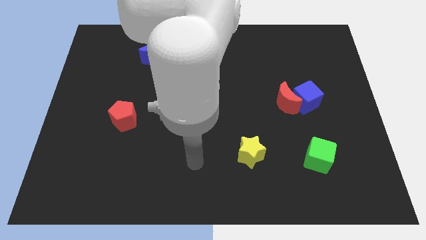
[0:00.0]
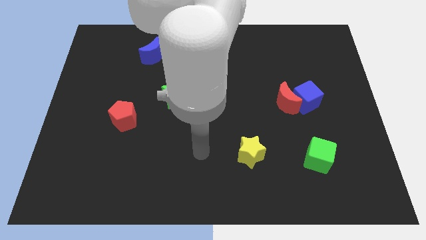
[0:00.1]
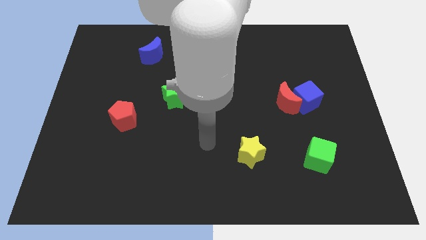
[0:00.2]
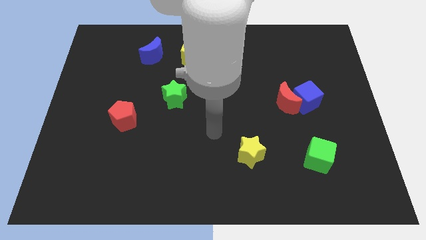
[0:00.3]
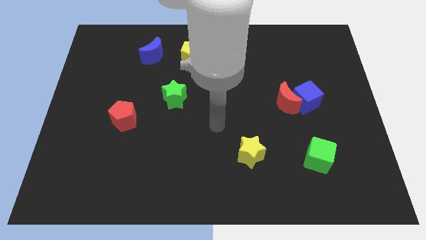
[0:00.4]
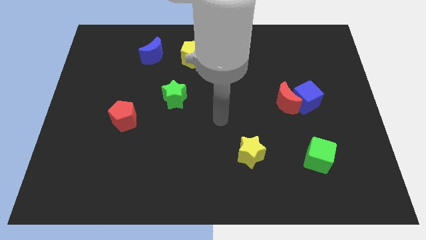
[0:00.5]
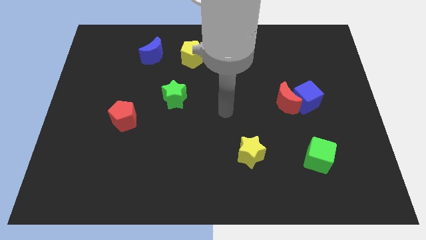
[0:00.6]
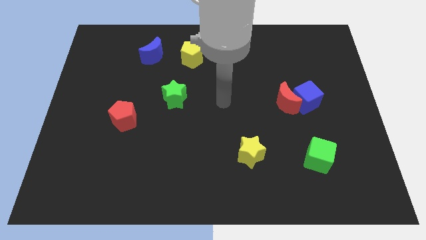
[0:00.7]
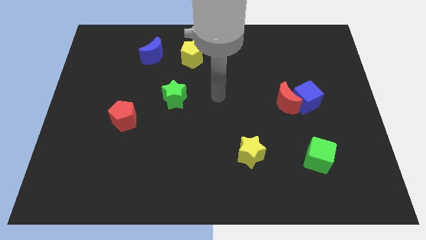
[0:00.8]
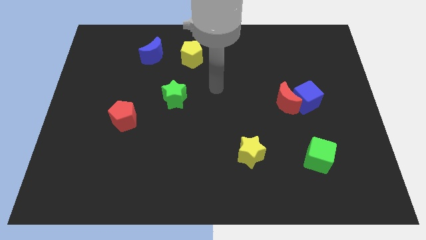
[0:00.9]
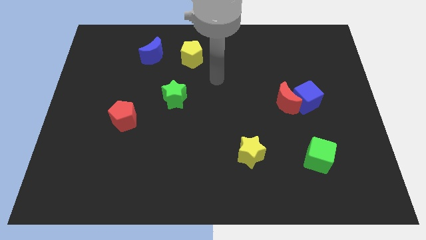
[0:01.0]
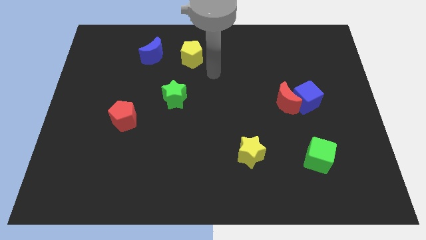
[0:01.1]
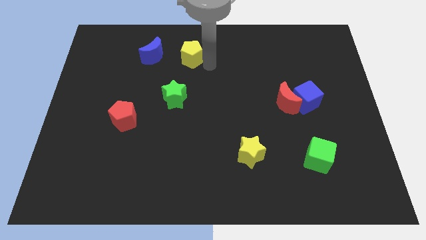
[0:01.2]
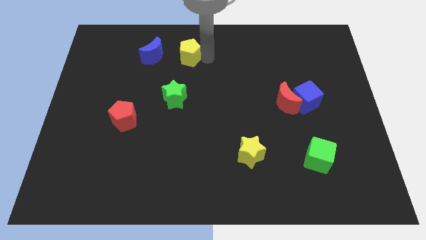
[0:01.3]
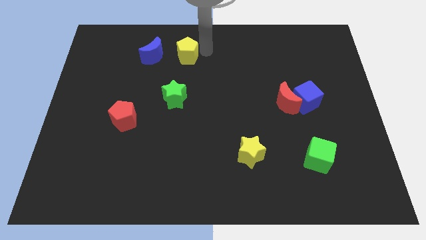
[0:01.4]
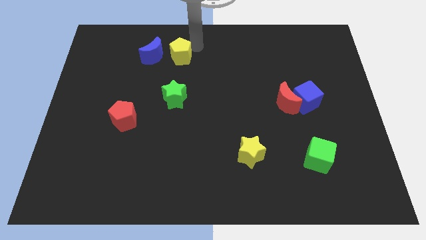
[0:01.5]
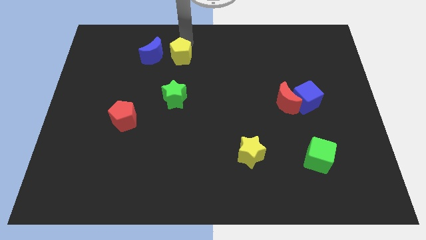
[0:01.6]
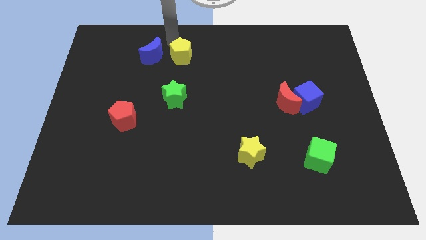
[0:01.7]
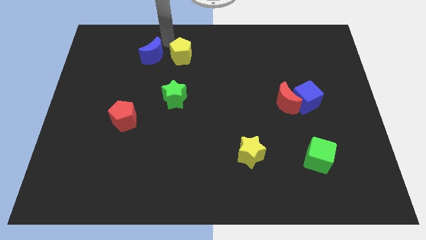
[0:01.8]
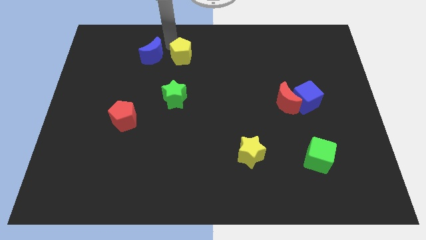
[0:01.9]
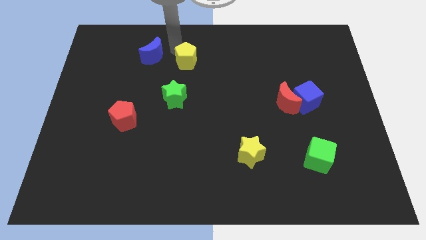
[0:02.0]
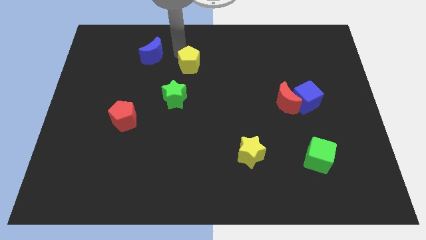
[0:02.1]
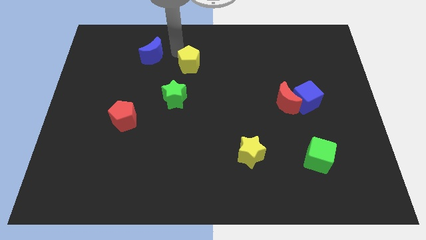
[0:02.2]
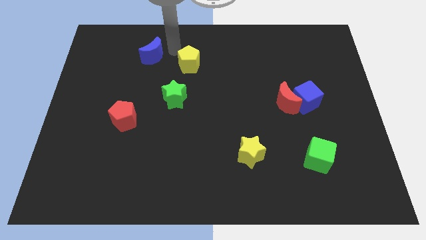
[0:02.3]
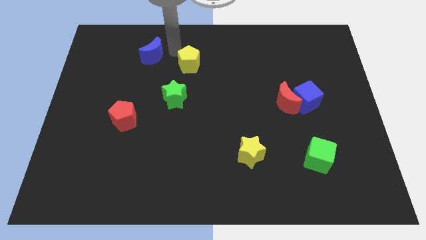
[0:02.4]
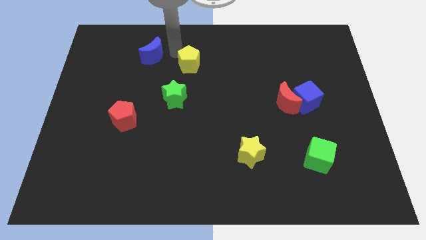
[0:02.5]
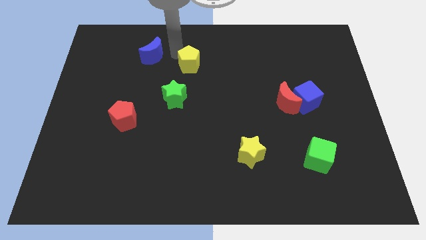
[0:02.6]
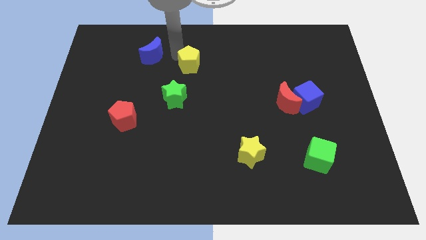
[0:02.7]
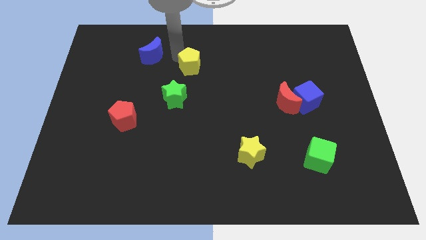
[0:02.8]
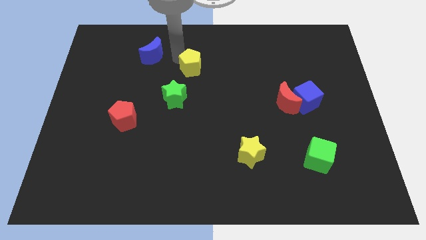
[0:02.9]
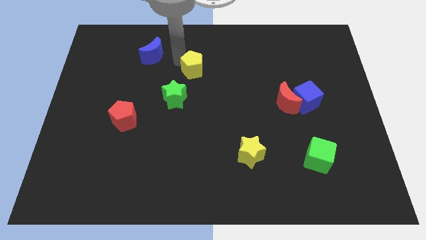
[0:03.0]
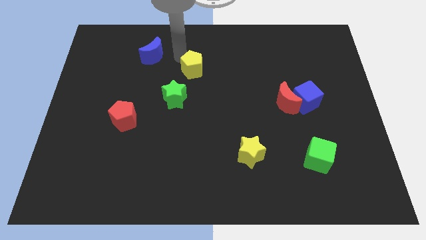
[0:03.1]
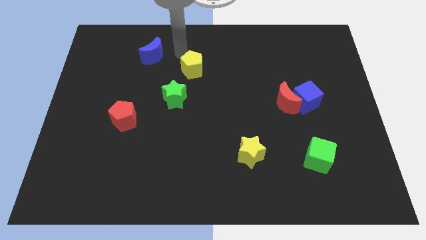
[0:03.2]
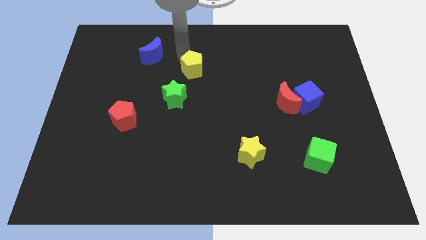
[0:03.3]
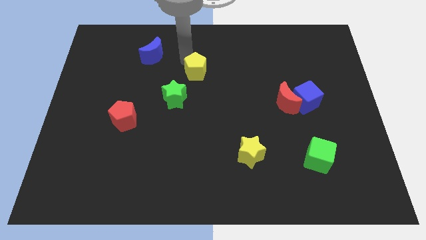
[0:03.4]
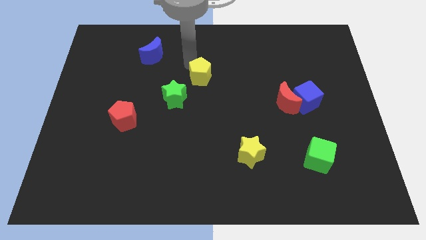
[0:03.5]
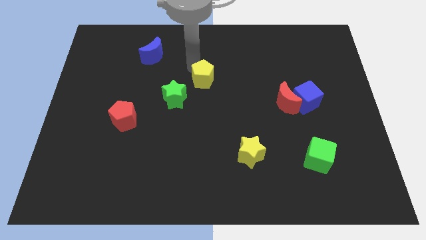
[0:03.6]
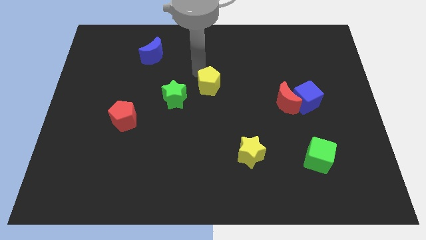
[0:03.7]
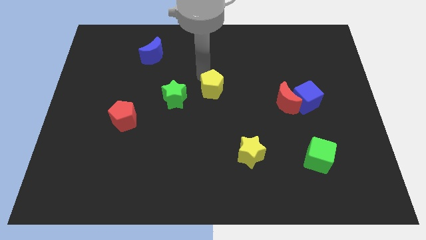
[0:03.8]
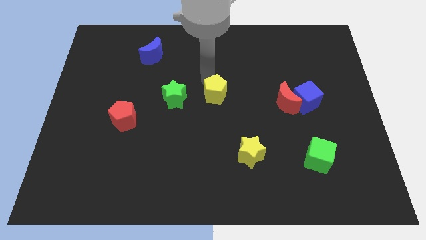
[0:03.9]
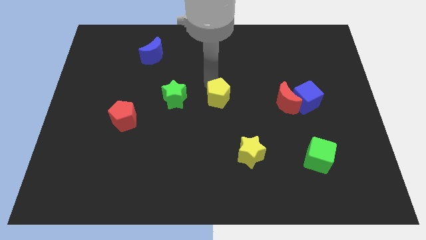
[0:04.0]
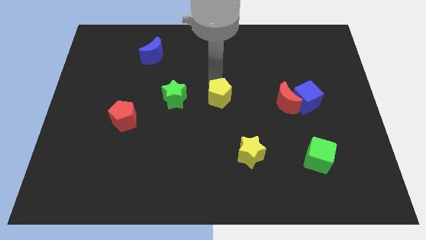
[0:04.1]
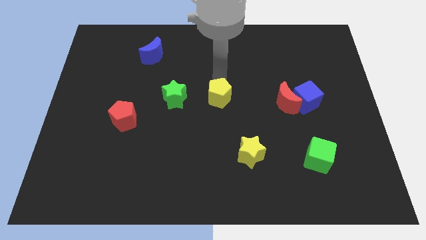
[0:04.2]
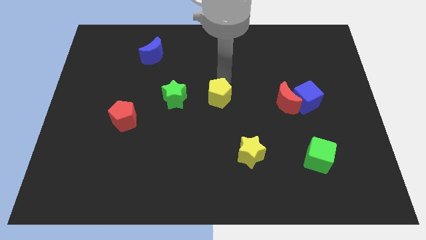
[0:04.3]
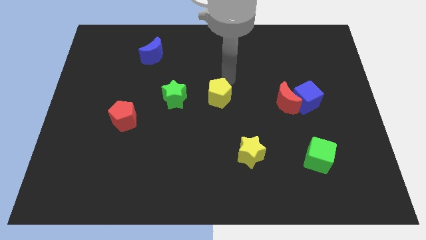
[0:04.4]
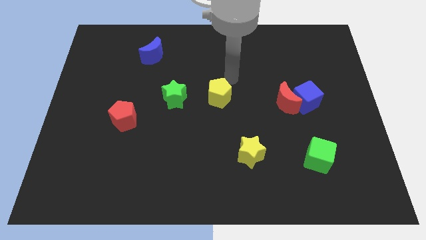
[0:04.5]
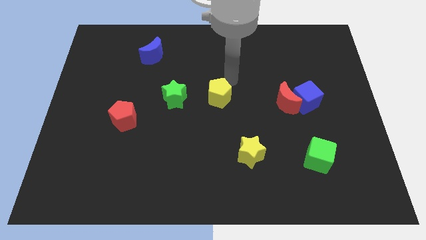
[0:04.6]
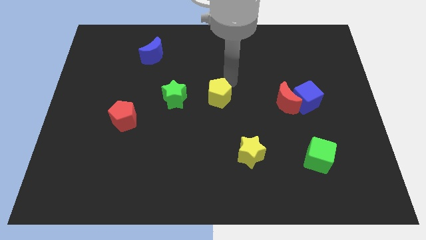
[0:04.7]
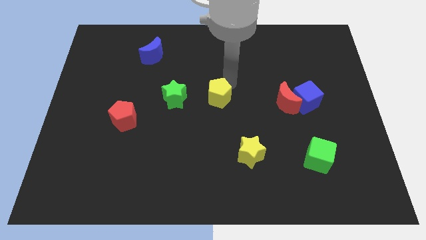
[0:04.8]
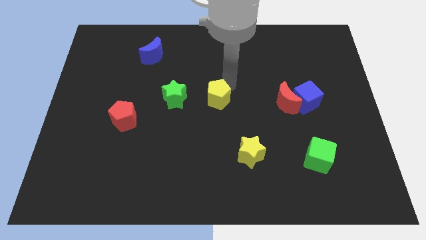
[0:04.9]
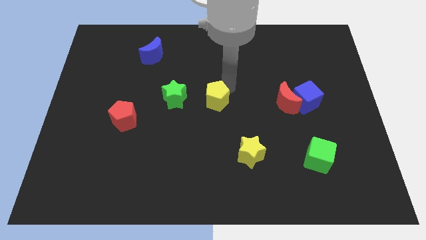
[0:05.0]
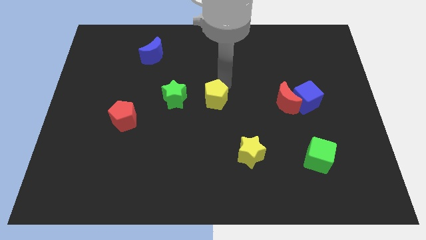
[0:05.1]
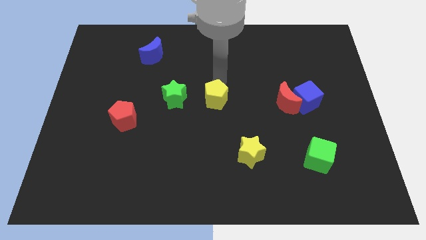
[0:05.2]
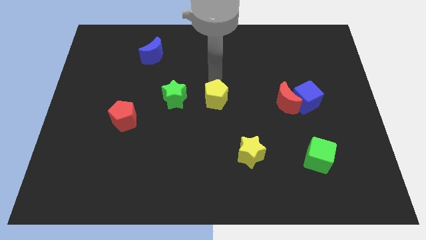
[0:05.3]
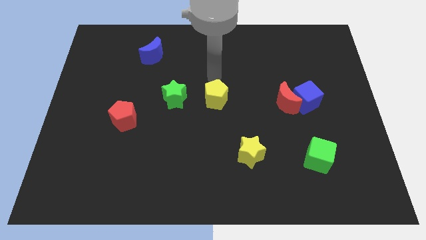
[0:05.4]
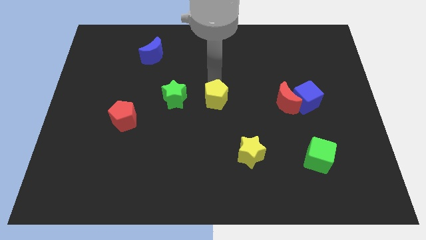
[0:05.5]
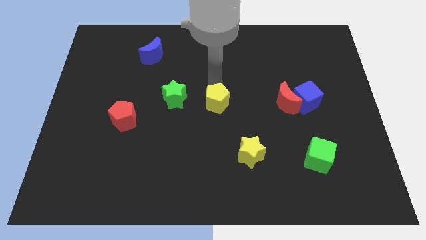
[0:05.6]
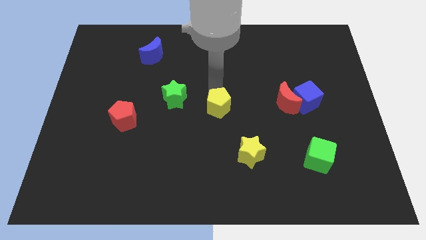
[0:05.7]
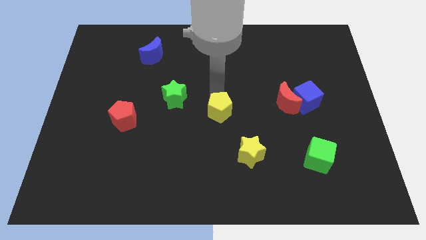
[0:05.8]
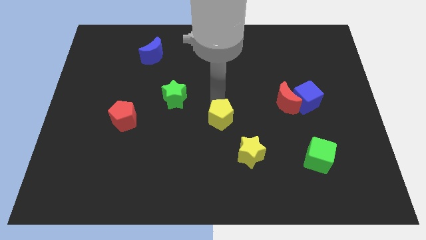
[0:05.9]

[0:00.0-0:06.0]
put the yellow pentagon to the top left of the yellow star
